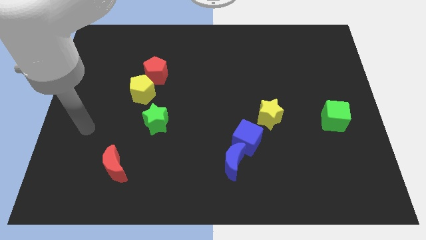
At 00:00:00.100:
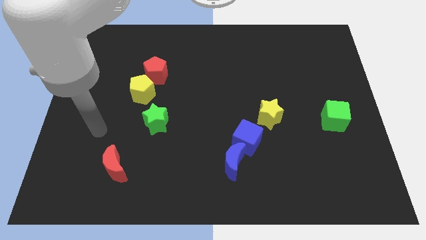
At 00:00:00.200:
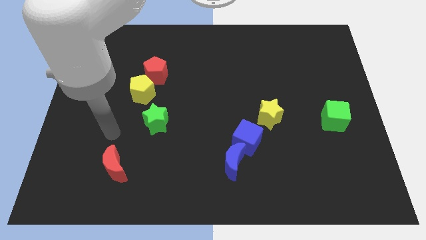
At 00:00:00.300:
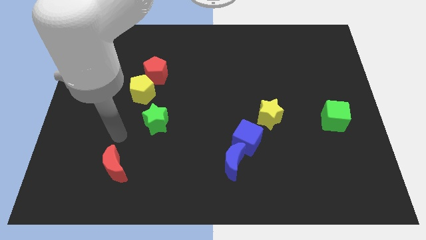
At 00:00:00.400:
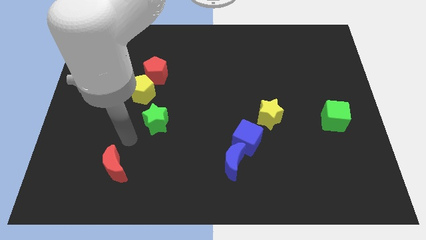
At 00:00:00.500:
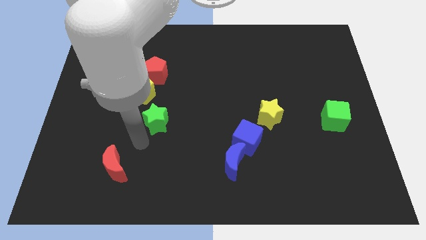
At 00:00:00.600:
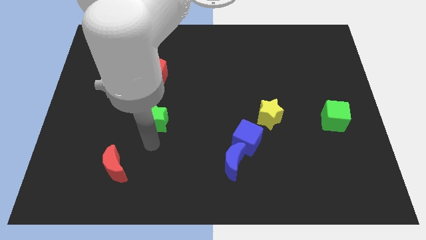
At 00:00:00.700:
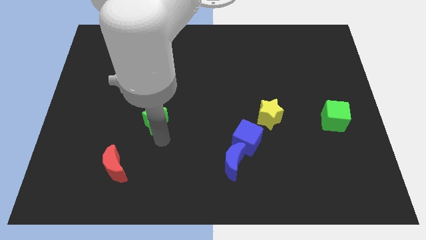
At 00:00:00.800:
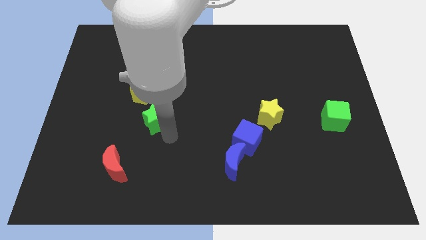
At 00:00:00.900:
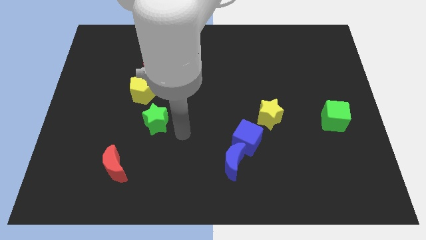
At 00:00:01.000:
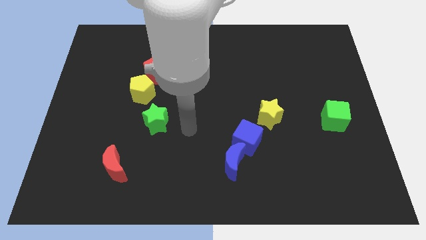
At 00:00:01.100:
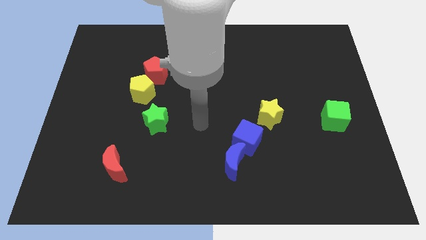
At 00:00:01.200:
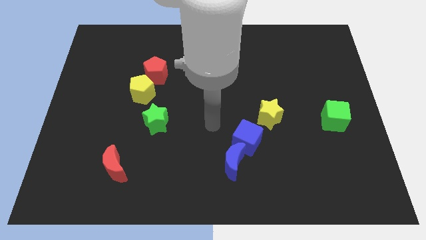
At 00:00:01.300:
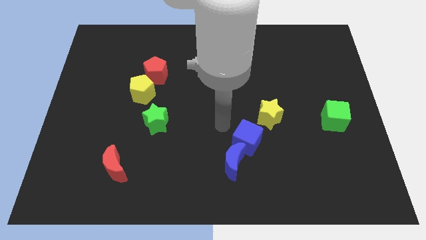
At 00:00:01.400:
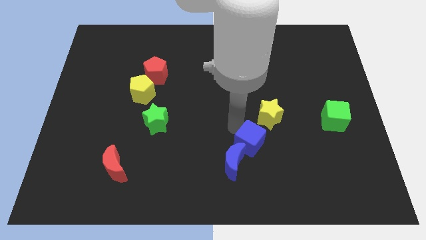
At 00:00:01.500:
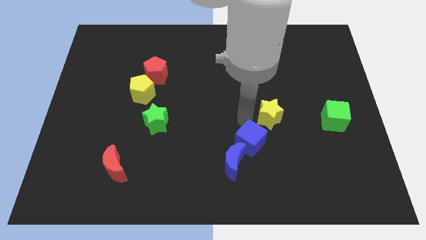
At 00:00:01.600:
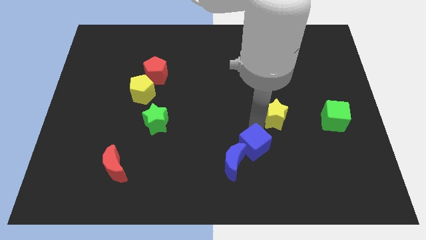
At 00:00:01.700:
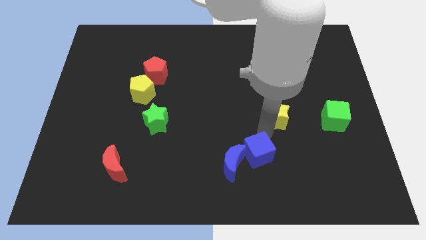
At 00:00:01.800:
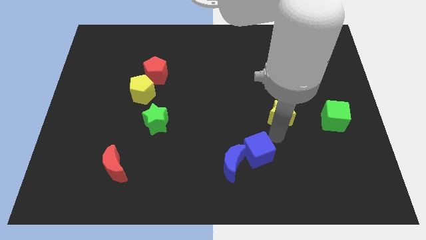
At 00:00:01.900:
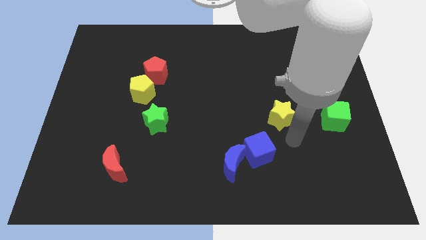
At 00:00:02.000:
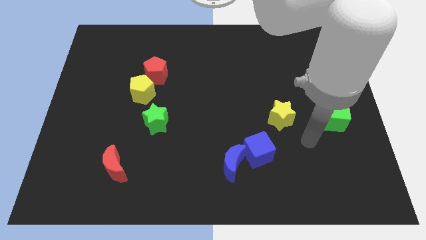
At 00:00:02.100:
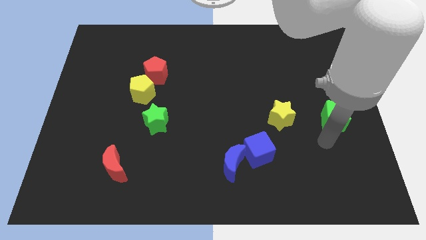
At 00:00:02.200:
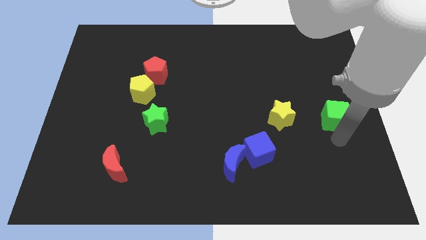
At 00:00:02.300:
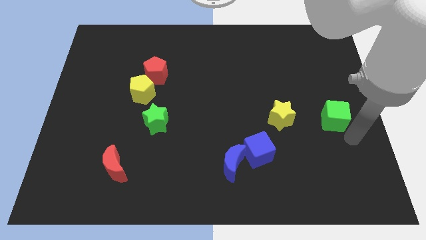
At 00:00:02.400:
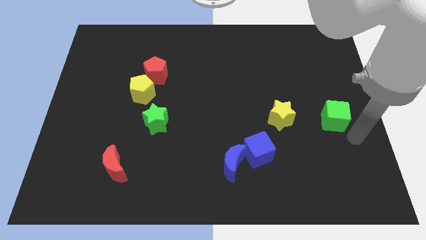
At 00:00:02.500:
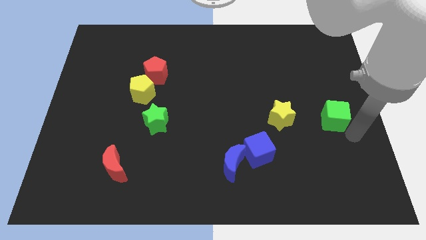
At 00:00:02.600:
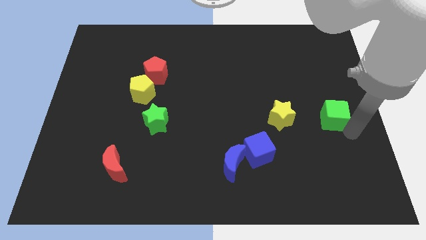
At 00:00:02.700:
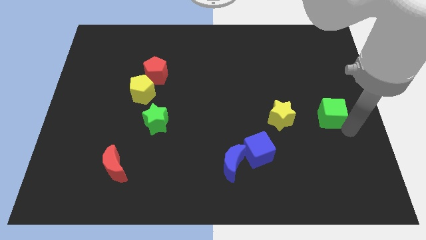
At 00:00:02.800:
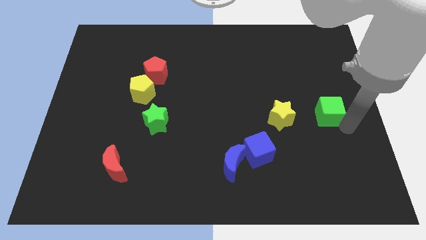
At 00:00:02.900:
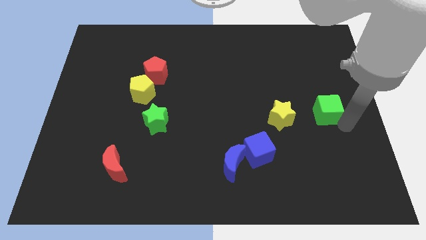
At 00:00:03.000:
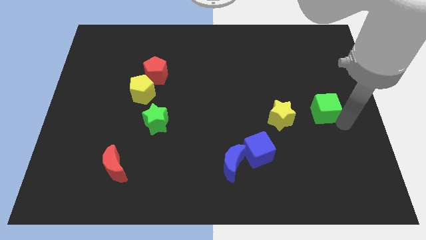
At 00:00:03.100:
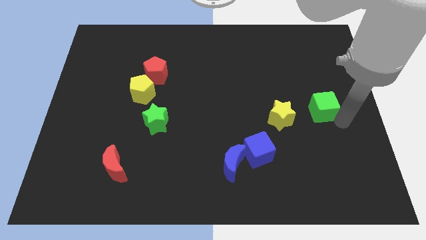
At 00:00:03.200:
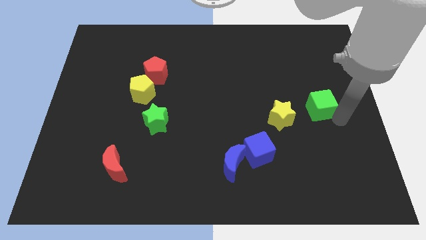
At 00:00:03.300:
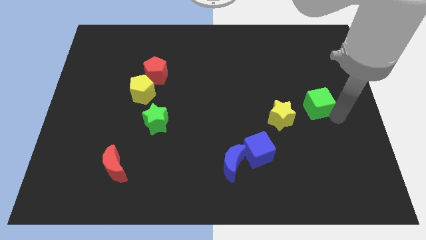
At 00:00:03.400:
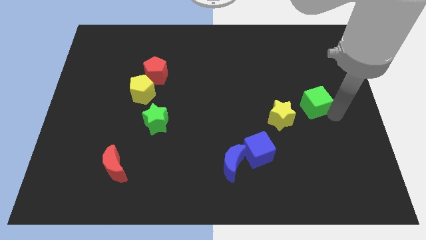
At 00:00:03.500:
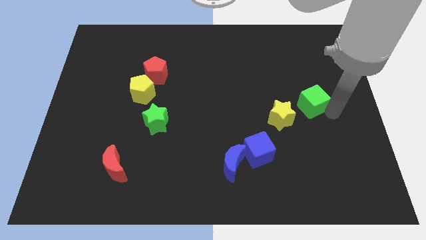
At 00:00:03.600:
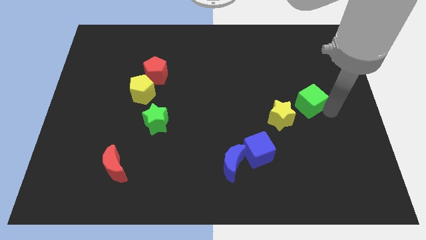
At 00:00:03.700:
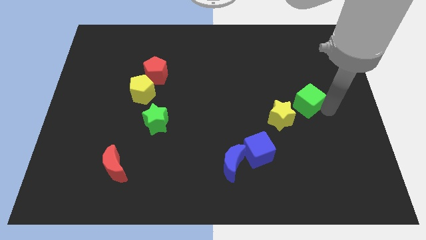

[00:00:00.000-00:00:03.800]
slightly push the green cube diagonally up and left

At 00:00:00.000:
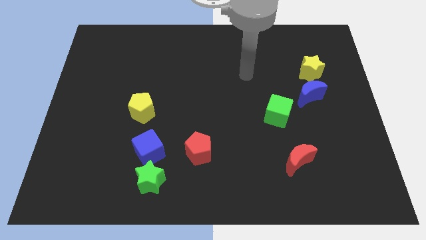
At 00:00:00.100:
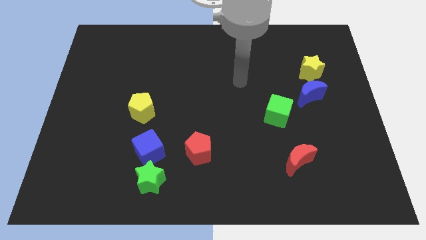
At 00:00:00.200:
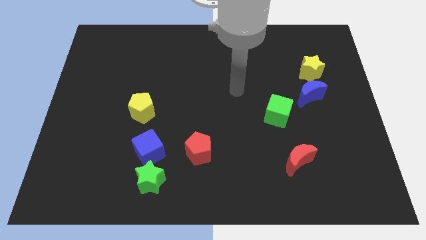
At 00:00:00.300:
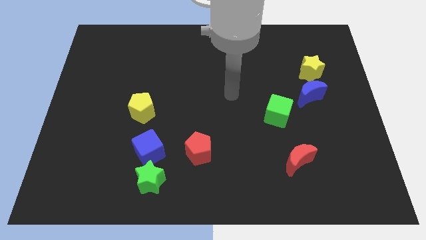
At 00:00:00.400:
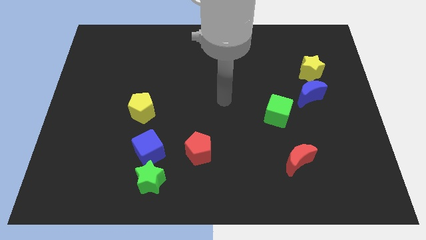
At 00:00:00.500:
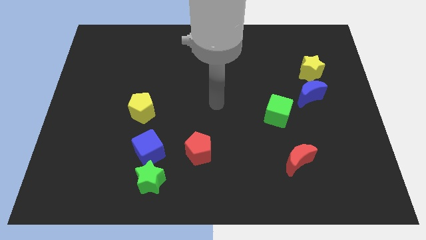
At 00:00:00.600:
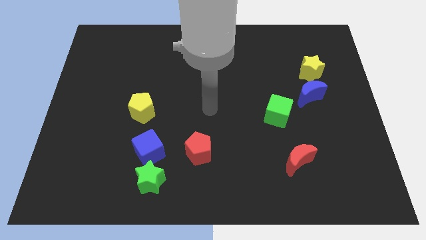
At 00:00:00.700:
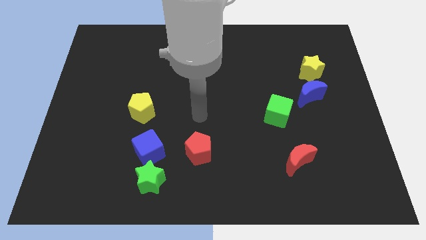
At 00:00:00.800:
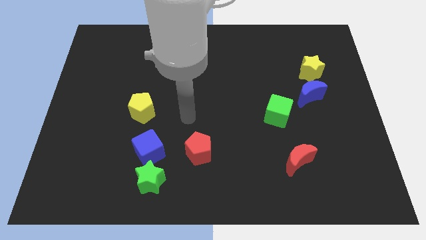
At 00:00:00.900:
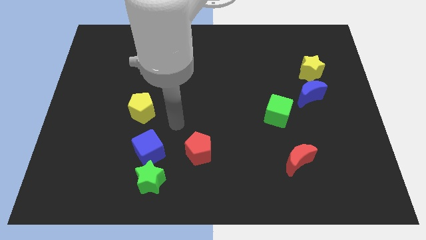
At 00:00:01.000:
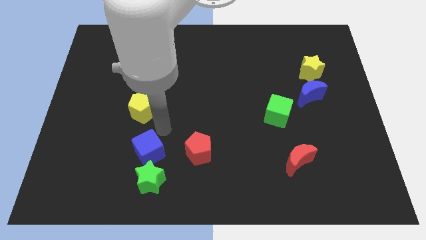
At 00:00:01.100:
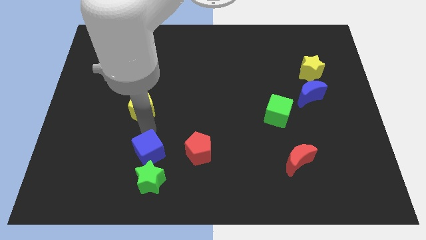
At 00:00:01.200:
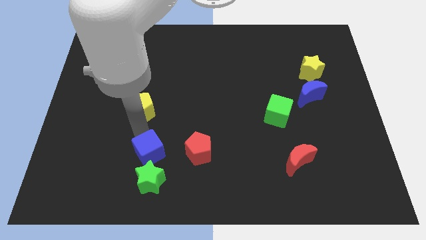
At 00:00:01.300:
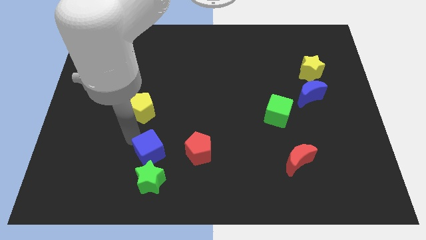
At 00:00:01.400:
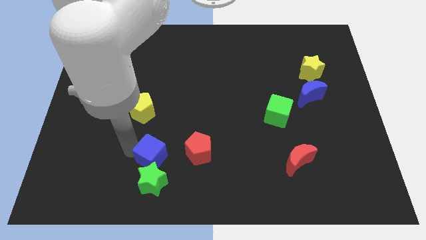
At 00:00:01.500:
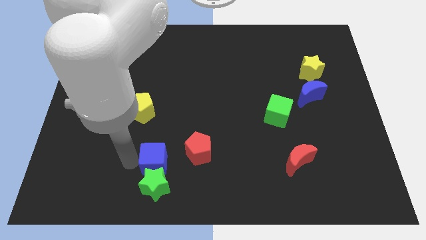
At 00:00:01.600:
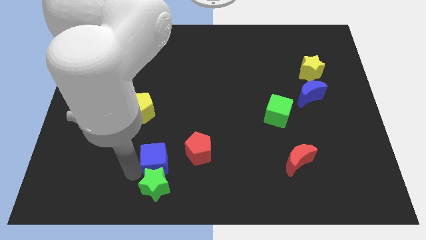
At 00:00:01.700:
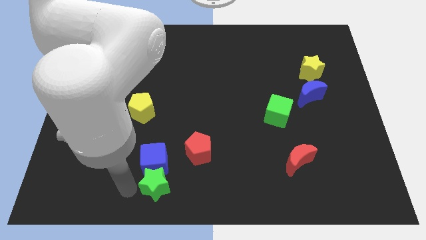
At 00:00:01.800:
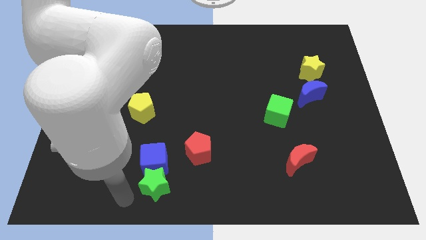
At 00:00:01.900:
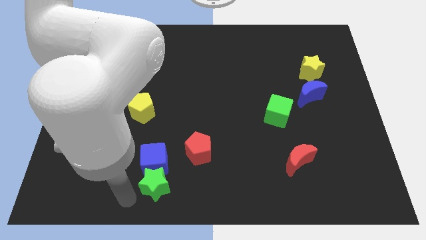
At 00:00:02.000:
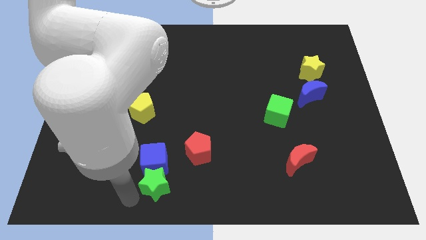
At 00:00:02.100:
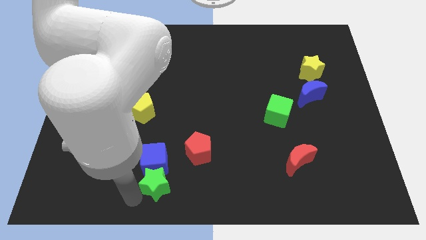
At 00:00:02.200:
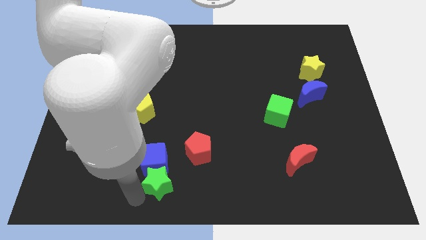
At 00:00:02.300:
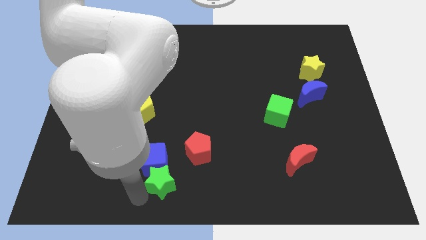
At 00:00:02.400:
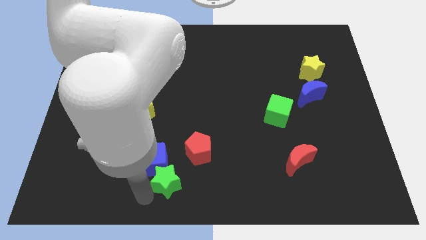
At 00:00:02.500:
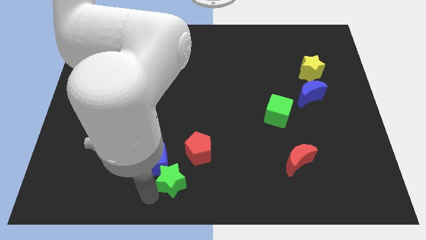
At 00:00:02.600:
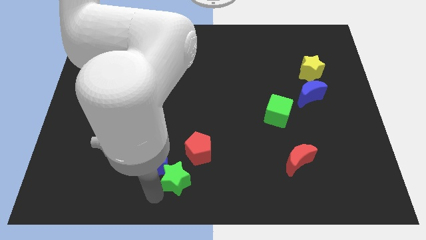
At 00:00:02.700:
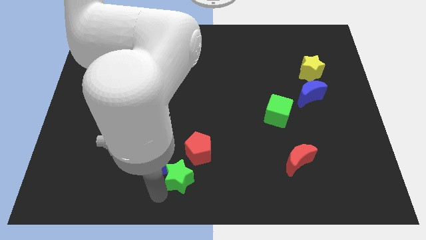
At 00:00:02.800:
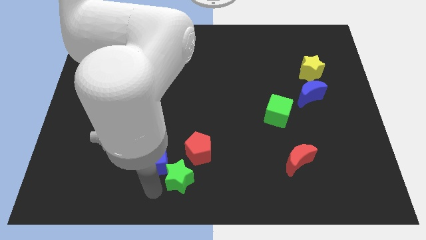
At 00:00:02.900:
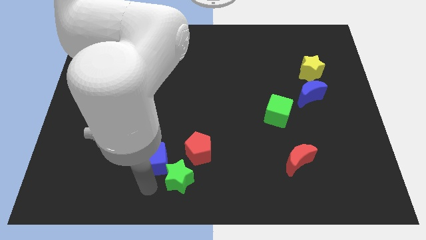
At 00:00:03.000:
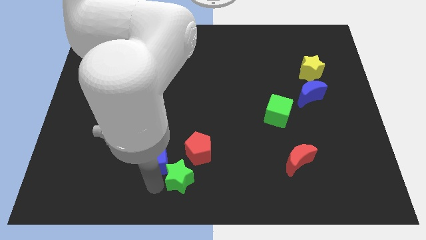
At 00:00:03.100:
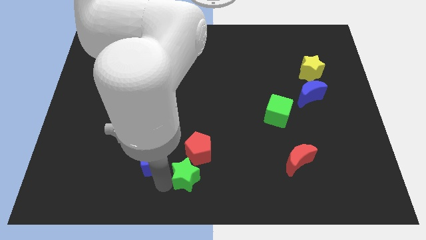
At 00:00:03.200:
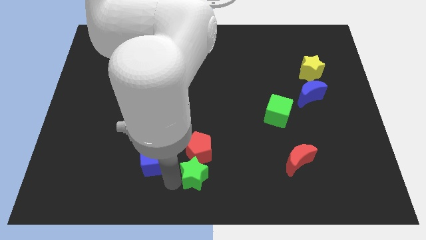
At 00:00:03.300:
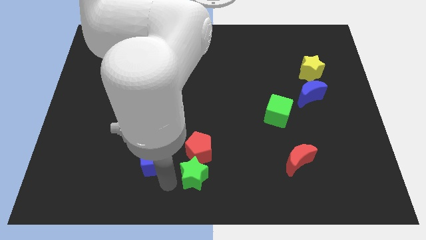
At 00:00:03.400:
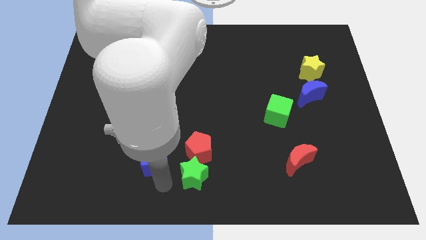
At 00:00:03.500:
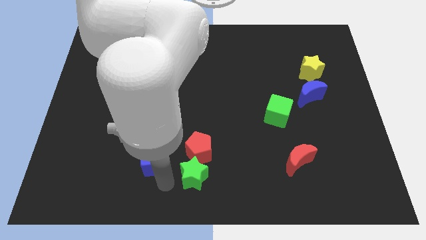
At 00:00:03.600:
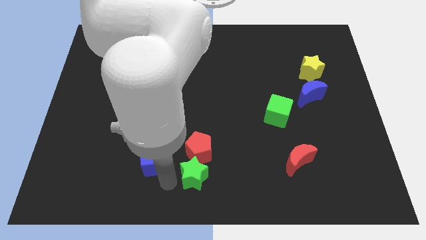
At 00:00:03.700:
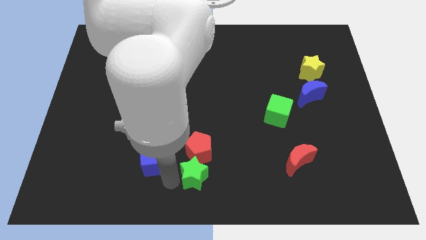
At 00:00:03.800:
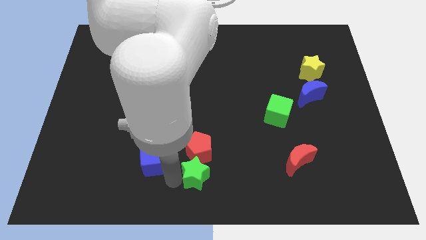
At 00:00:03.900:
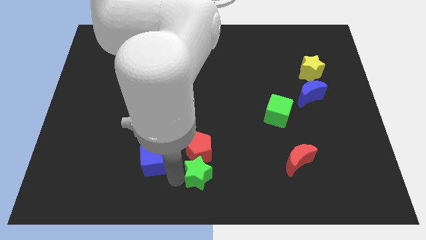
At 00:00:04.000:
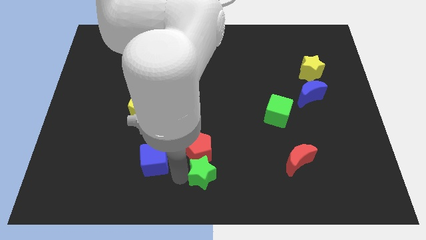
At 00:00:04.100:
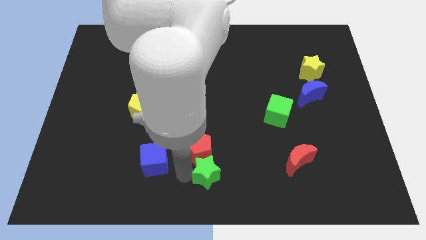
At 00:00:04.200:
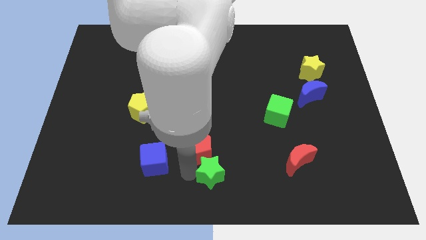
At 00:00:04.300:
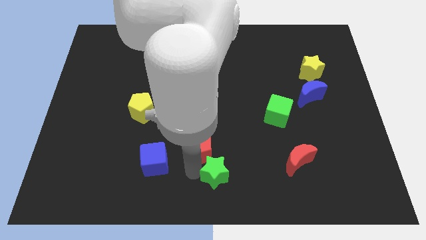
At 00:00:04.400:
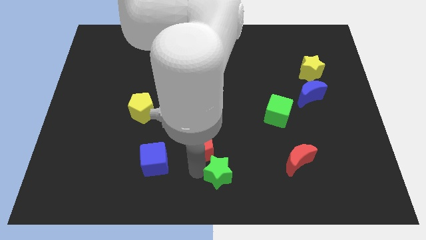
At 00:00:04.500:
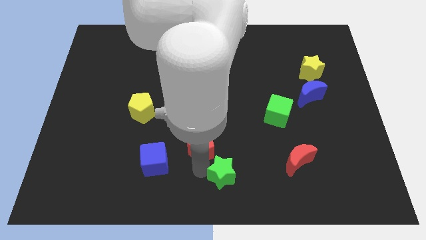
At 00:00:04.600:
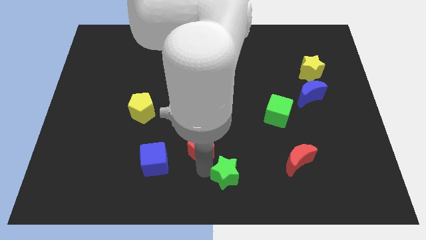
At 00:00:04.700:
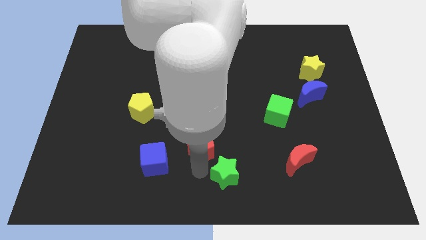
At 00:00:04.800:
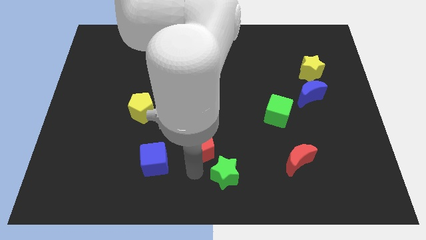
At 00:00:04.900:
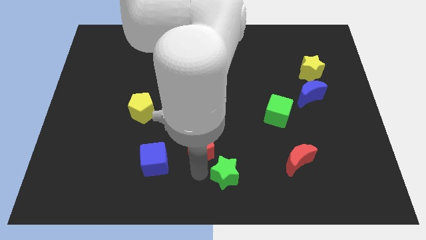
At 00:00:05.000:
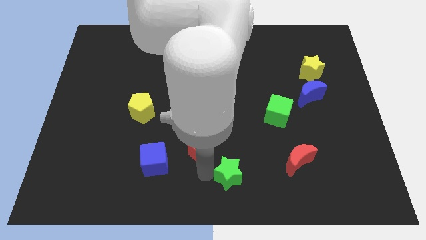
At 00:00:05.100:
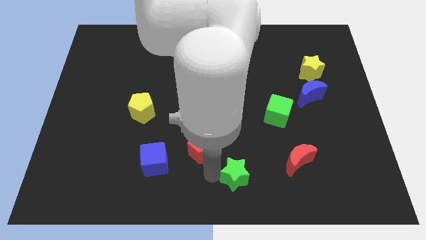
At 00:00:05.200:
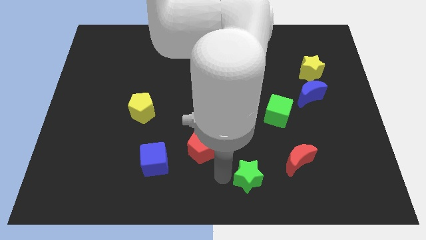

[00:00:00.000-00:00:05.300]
slide the green star right
